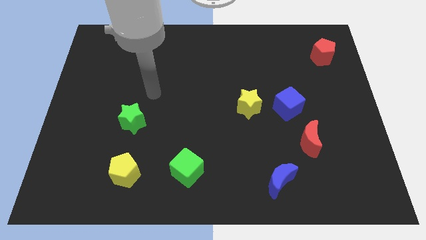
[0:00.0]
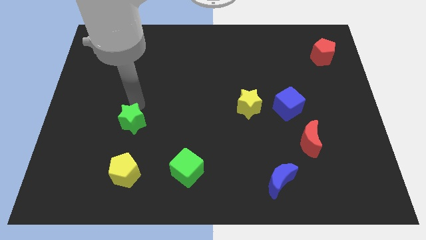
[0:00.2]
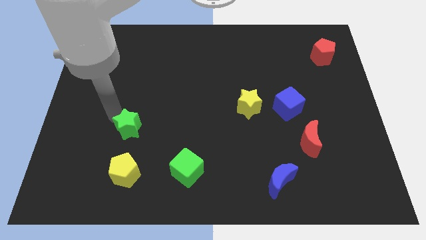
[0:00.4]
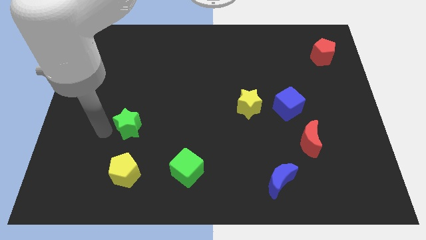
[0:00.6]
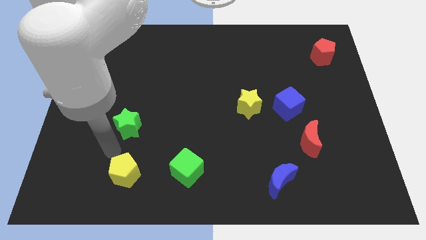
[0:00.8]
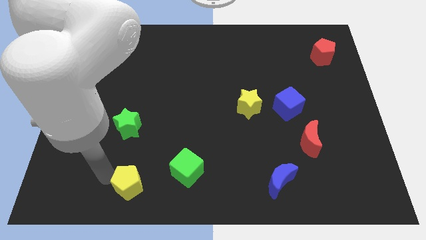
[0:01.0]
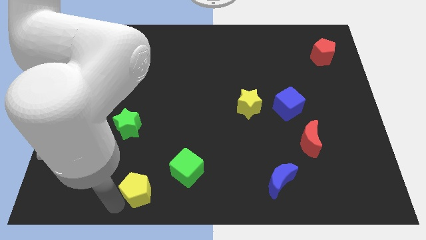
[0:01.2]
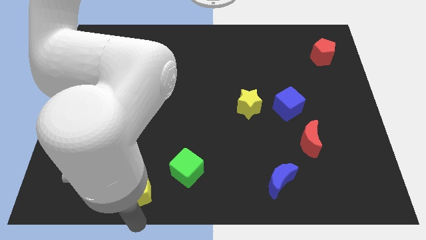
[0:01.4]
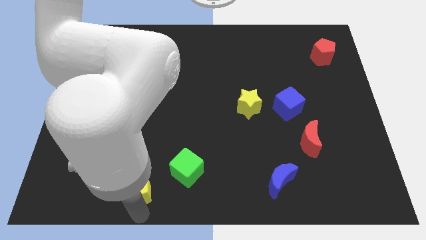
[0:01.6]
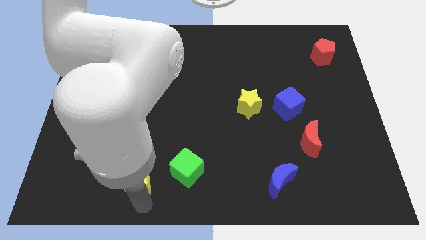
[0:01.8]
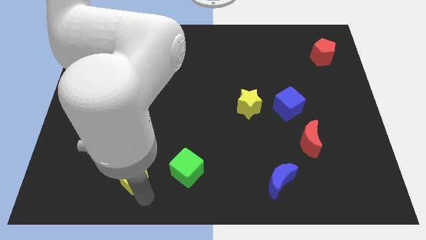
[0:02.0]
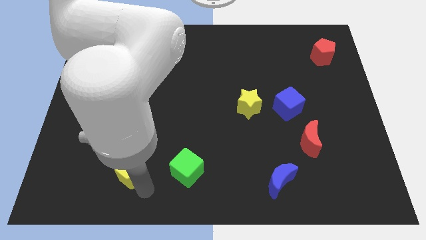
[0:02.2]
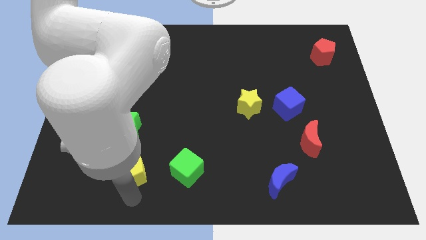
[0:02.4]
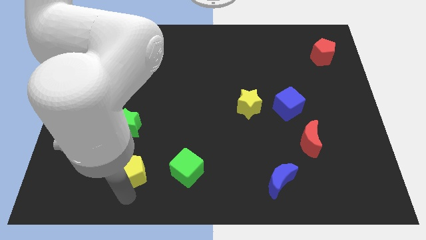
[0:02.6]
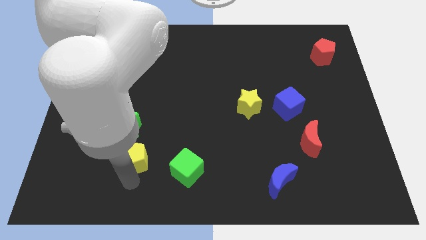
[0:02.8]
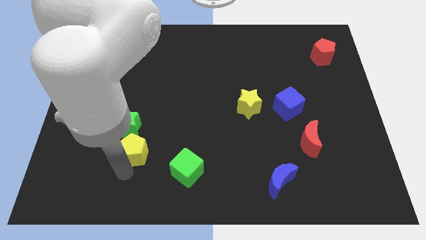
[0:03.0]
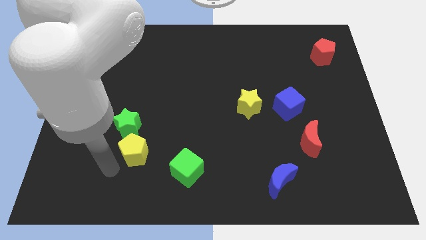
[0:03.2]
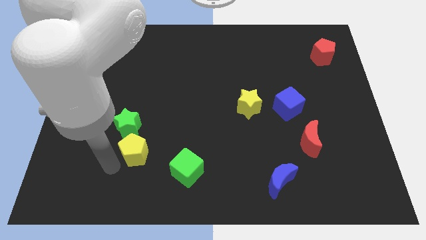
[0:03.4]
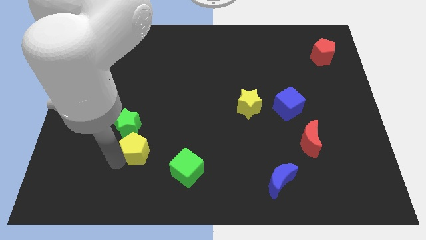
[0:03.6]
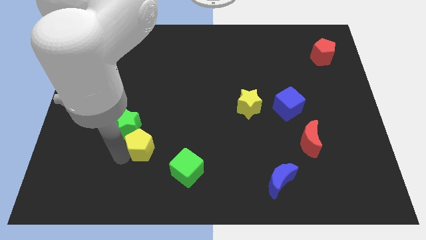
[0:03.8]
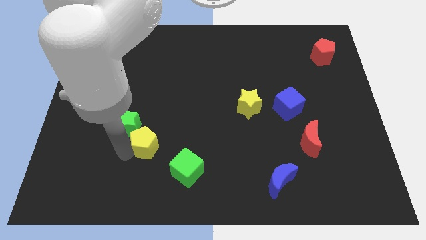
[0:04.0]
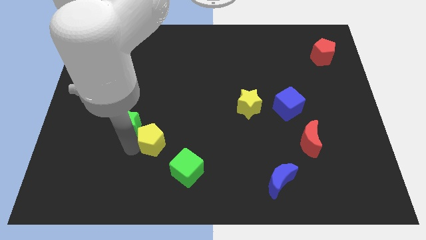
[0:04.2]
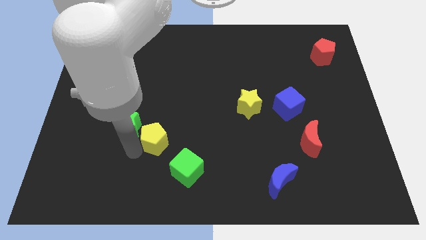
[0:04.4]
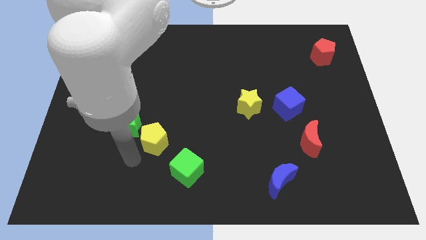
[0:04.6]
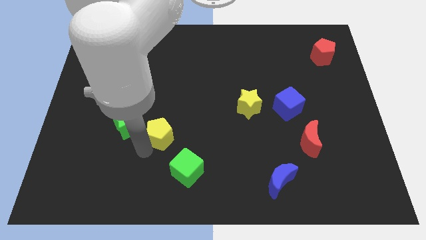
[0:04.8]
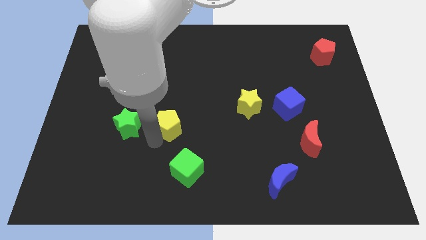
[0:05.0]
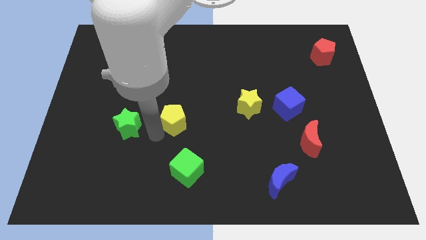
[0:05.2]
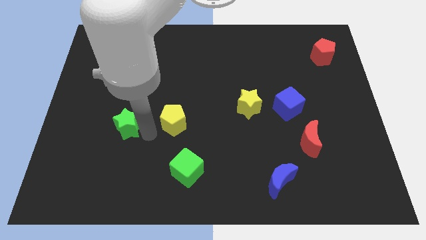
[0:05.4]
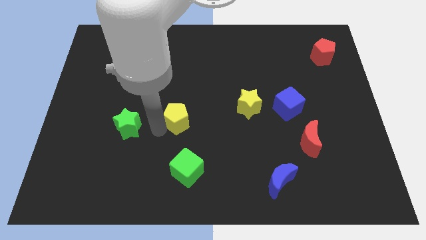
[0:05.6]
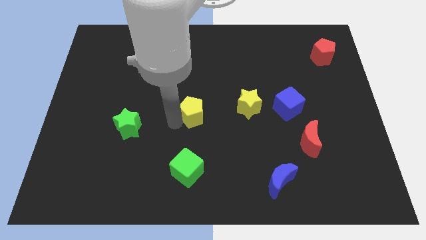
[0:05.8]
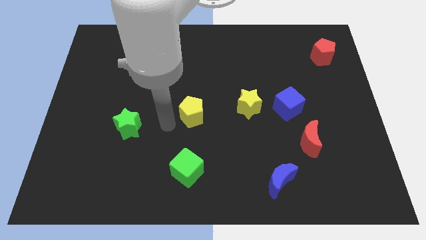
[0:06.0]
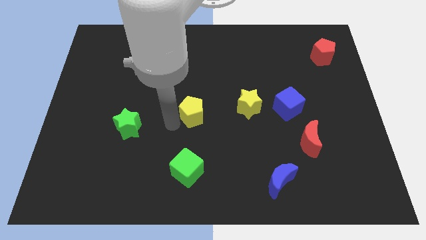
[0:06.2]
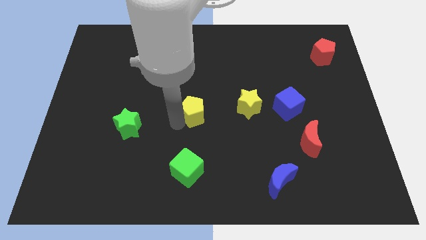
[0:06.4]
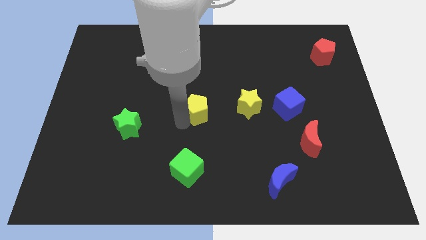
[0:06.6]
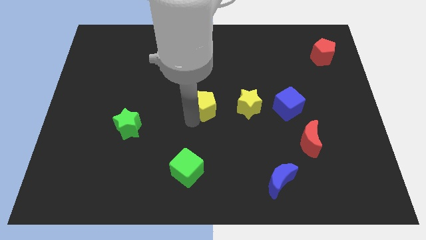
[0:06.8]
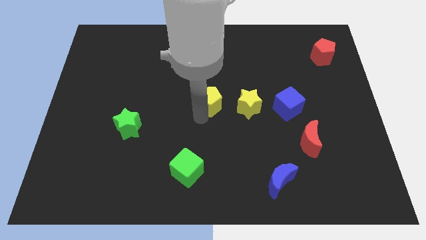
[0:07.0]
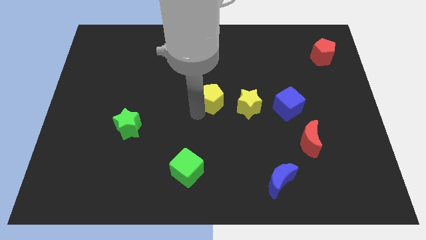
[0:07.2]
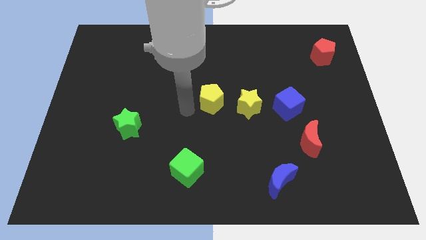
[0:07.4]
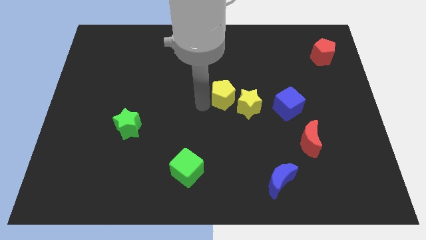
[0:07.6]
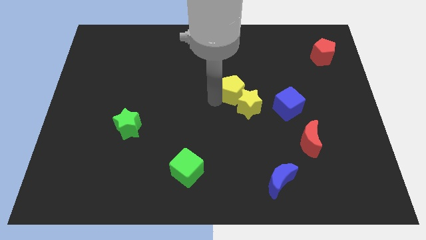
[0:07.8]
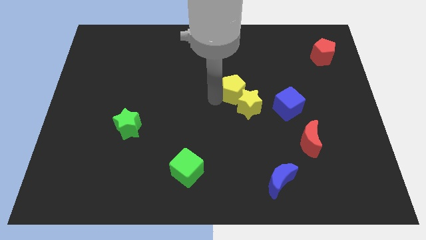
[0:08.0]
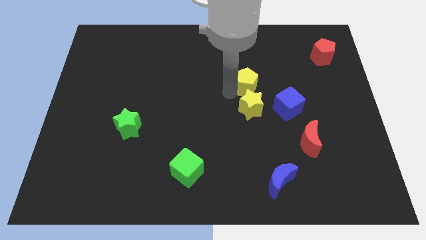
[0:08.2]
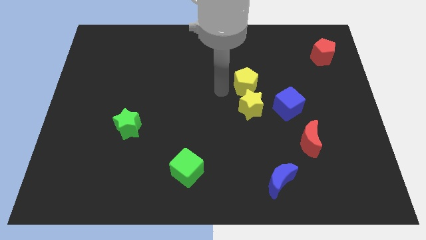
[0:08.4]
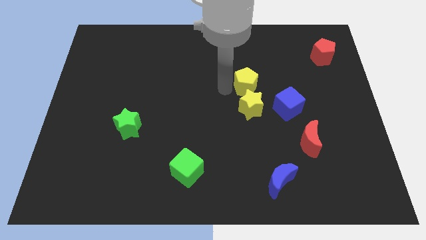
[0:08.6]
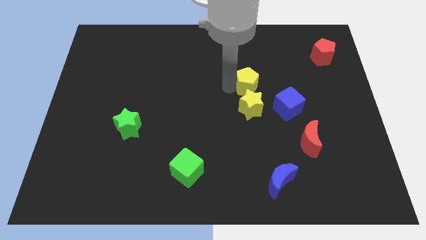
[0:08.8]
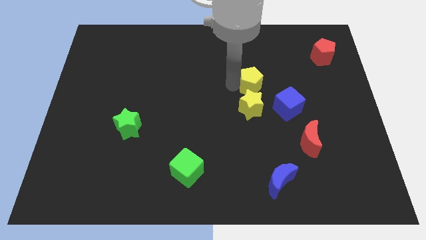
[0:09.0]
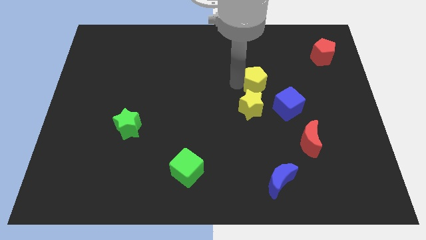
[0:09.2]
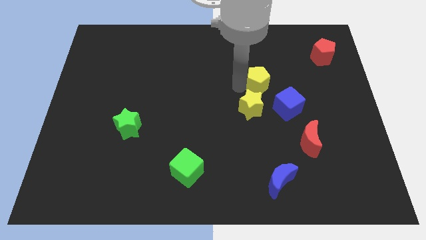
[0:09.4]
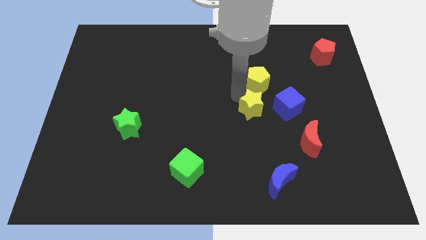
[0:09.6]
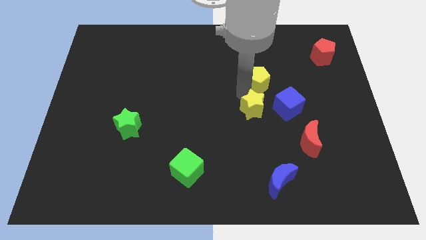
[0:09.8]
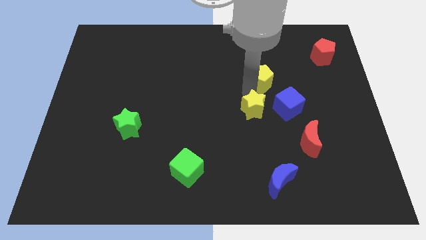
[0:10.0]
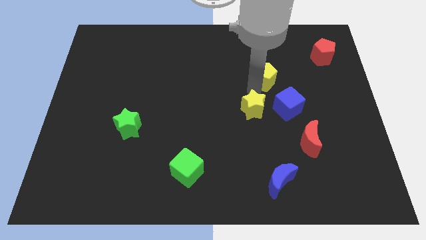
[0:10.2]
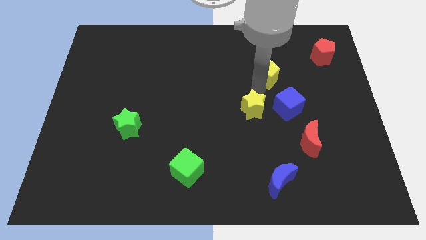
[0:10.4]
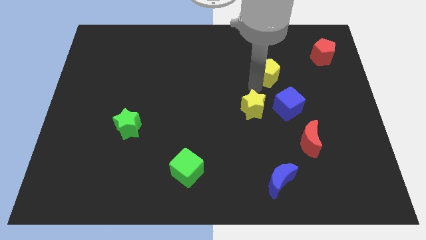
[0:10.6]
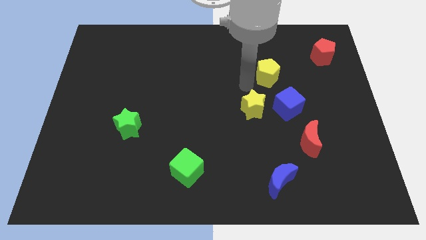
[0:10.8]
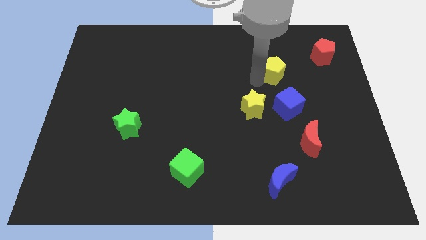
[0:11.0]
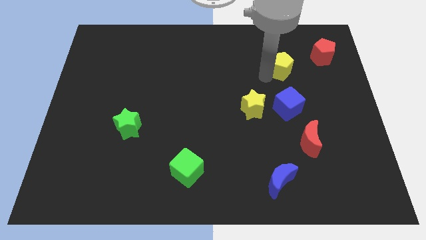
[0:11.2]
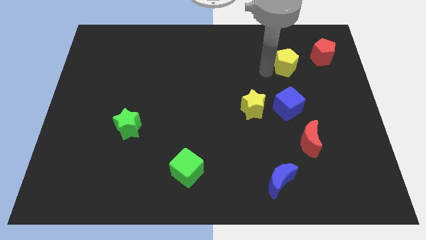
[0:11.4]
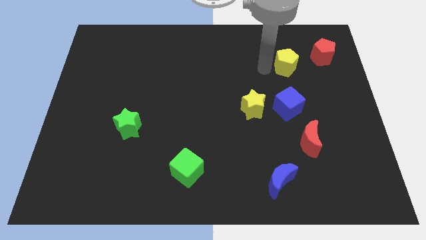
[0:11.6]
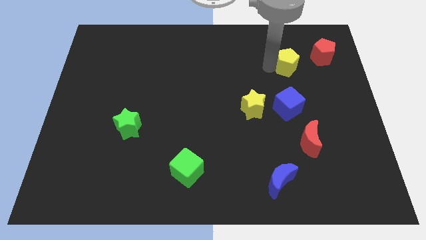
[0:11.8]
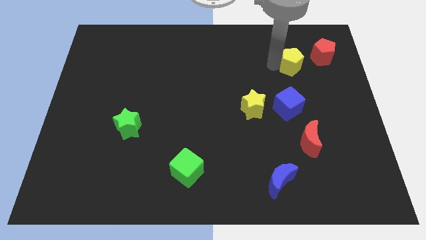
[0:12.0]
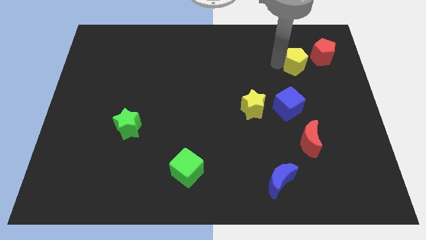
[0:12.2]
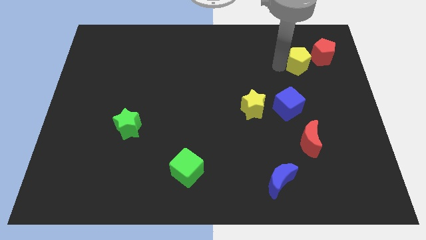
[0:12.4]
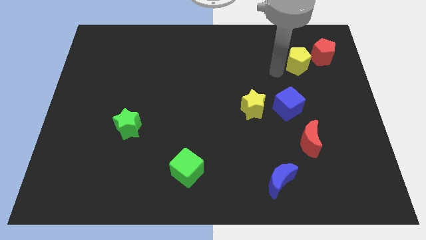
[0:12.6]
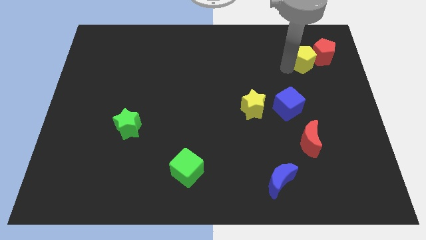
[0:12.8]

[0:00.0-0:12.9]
move the yellow pentagon next to the red pentagon

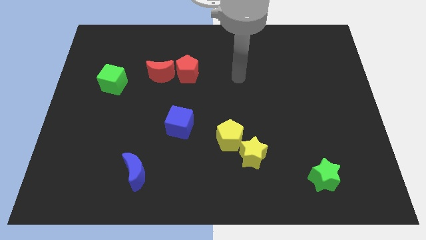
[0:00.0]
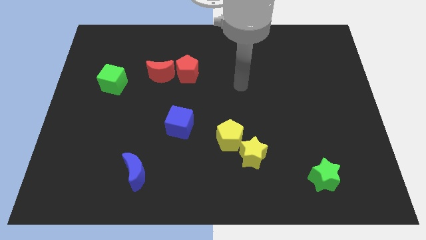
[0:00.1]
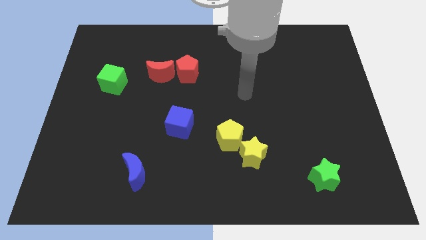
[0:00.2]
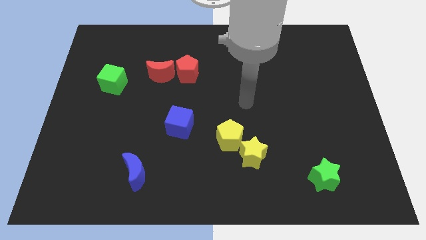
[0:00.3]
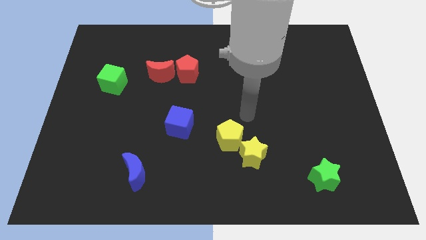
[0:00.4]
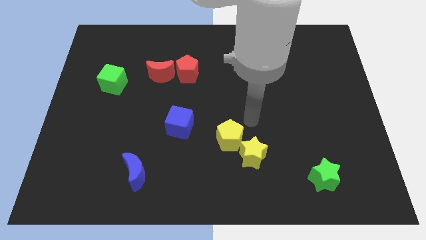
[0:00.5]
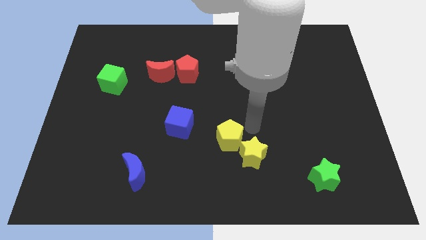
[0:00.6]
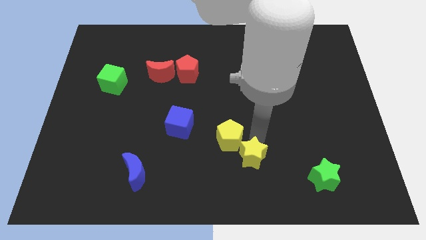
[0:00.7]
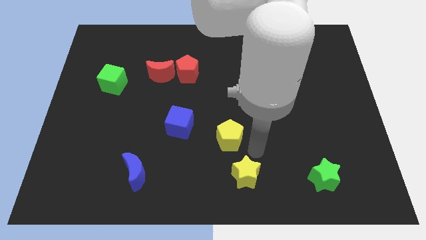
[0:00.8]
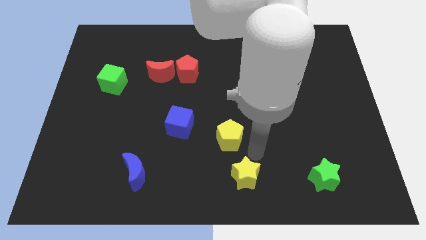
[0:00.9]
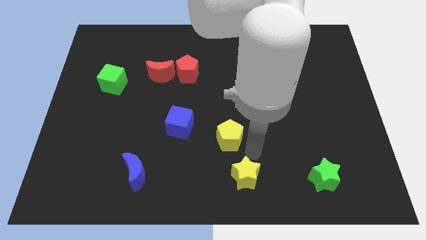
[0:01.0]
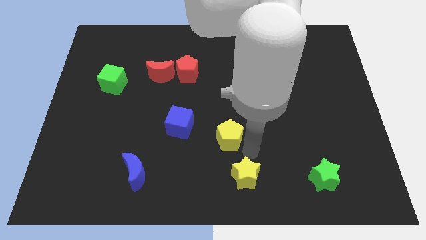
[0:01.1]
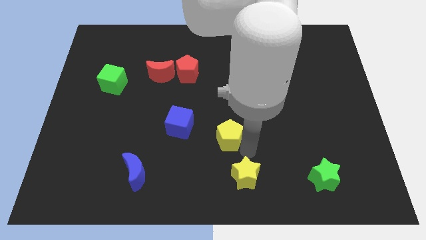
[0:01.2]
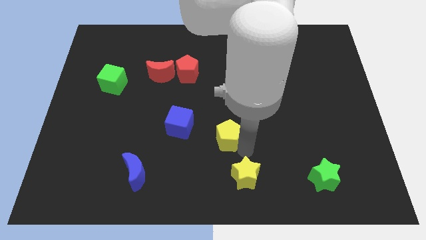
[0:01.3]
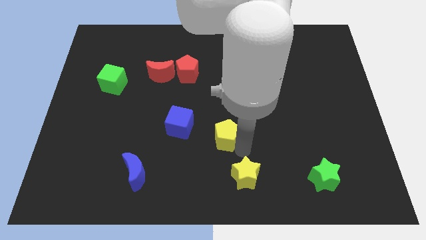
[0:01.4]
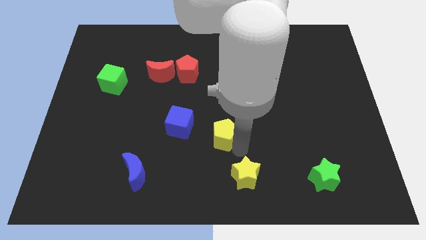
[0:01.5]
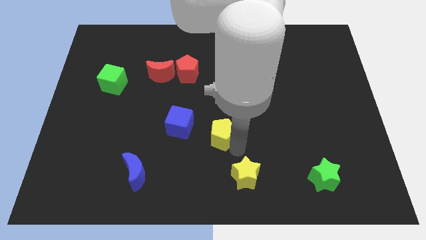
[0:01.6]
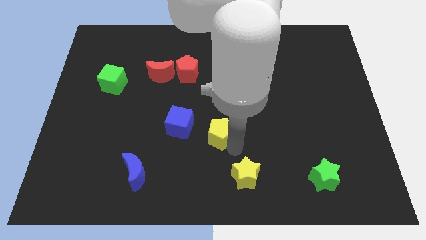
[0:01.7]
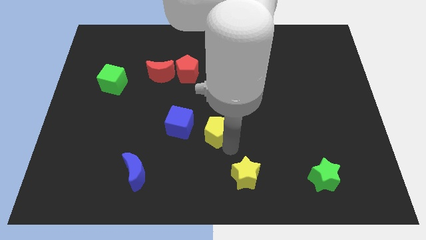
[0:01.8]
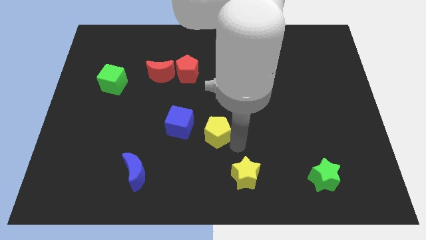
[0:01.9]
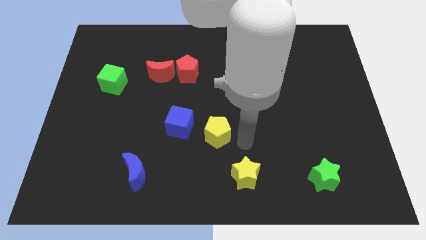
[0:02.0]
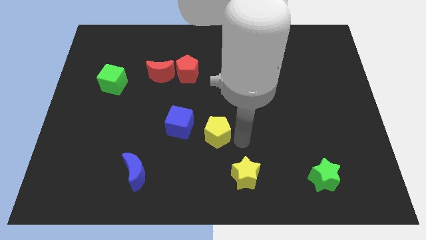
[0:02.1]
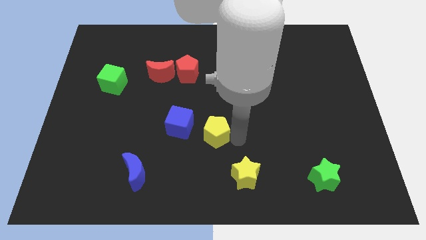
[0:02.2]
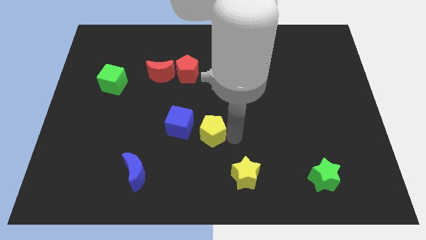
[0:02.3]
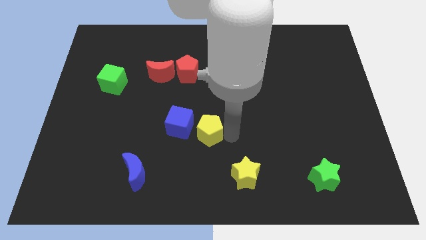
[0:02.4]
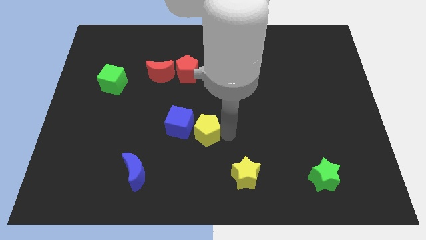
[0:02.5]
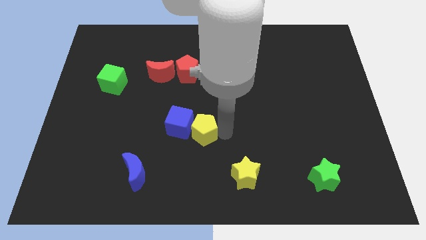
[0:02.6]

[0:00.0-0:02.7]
slide the yellow pentagon next to the blue cube
